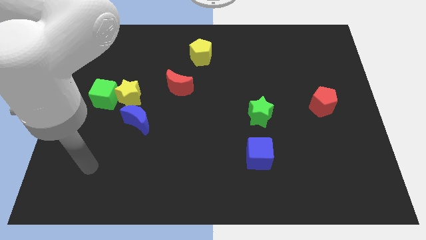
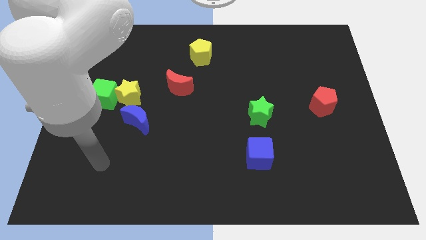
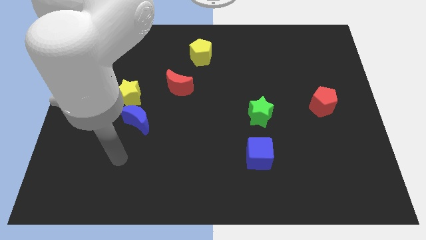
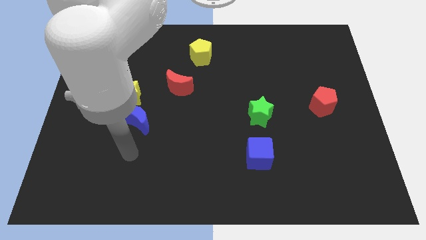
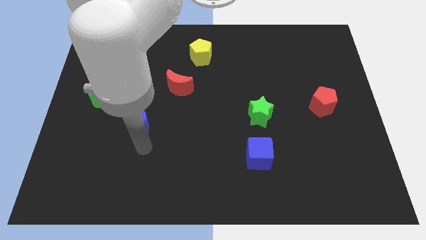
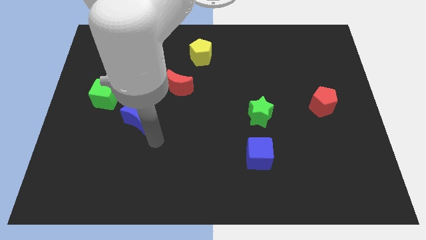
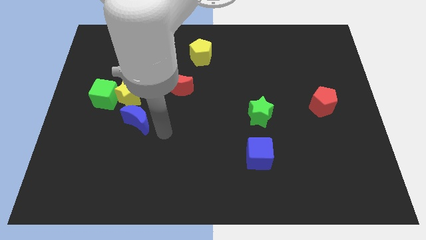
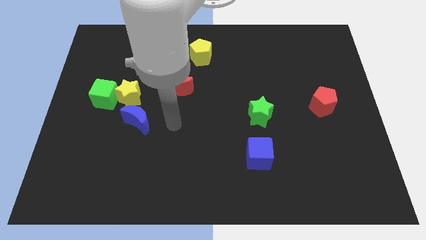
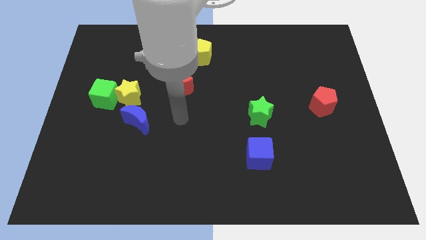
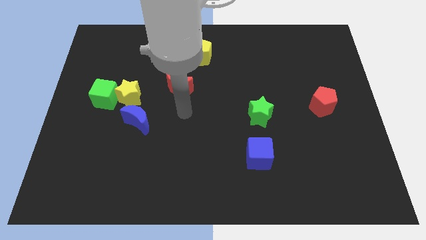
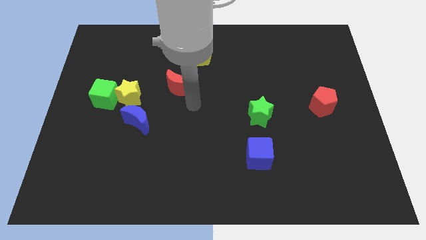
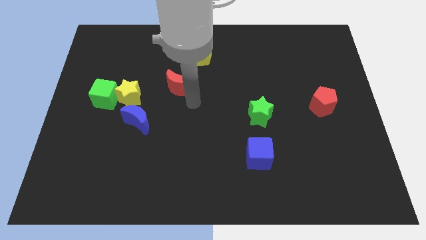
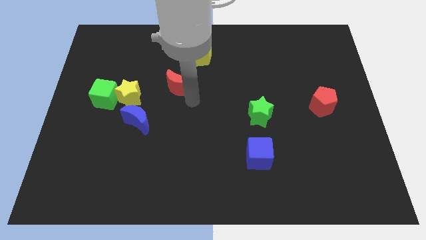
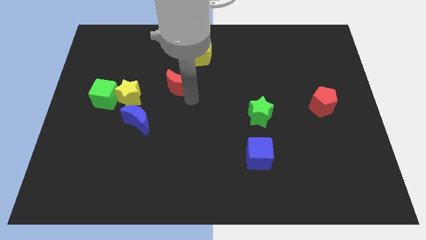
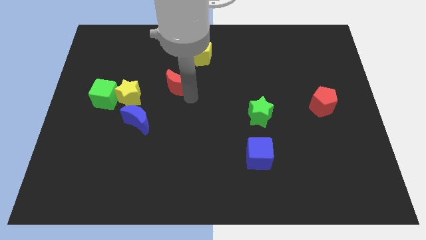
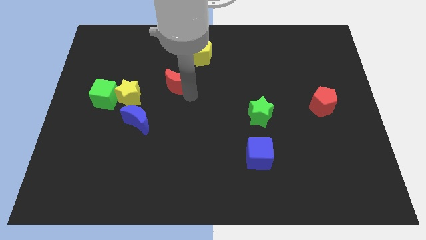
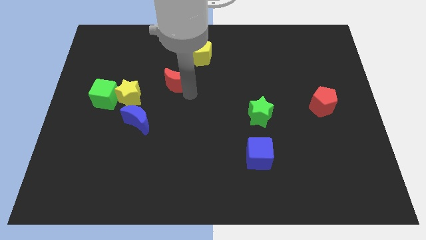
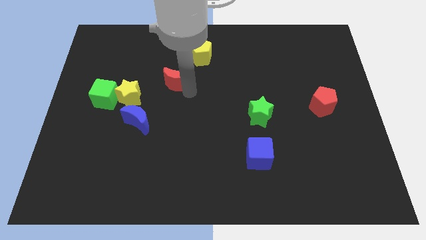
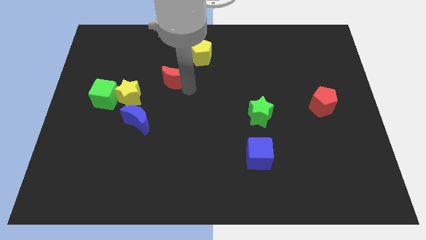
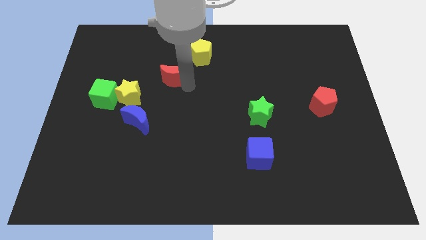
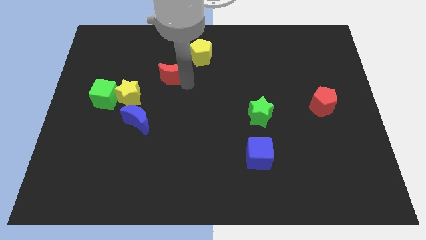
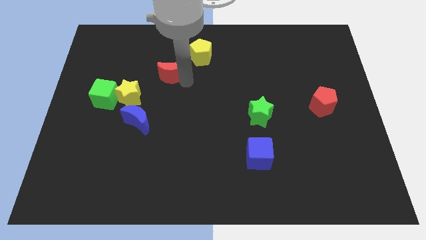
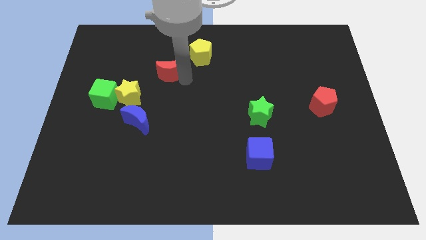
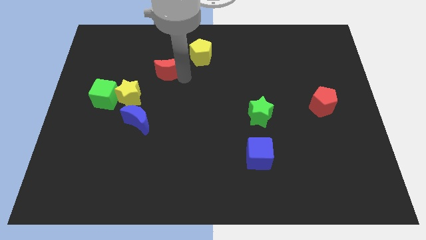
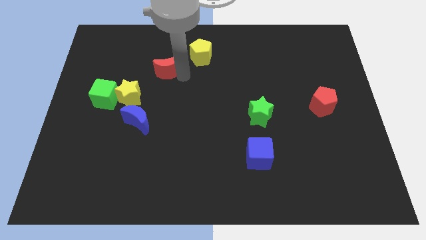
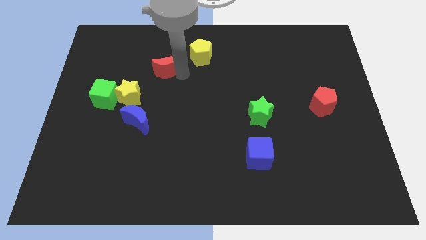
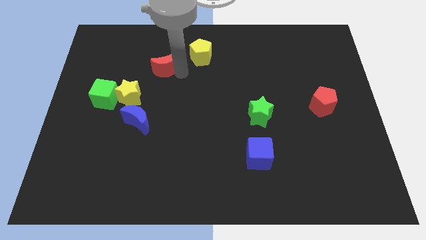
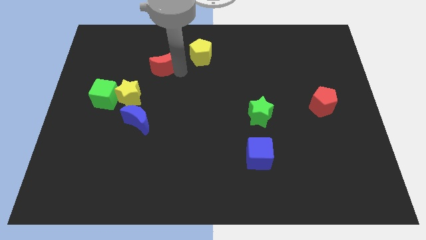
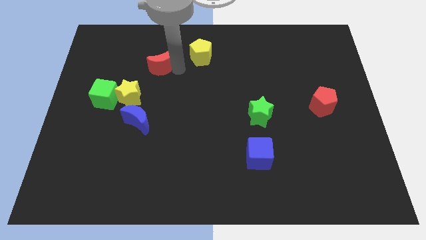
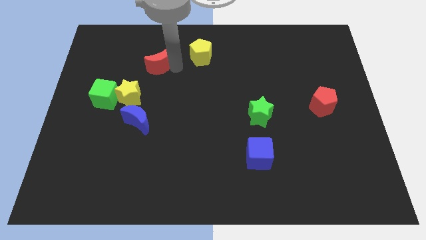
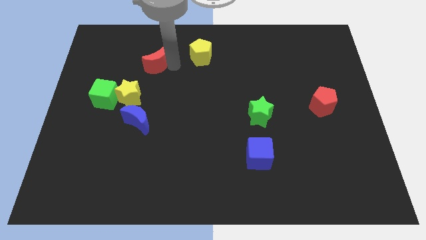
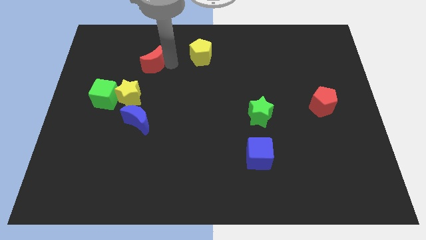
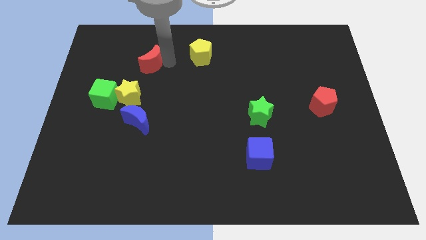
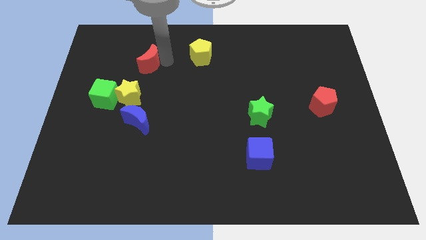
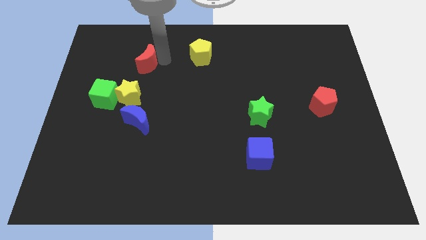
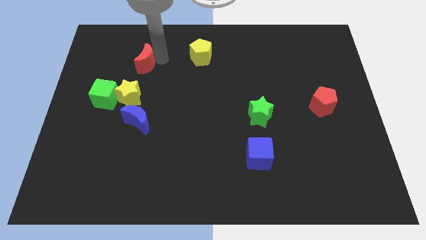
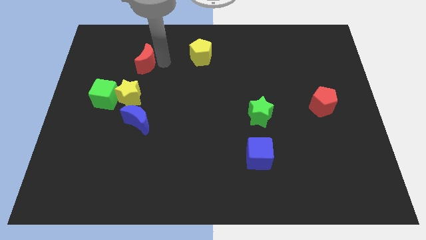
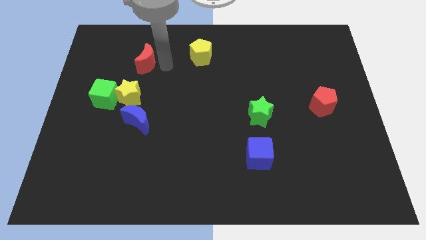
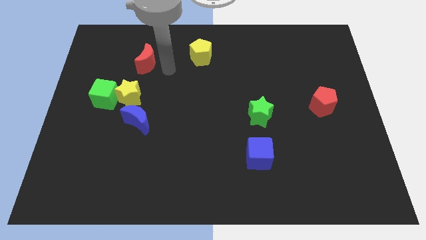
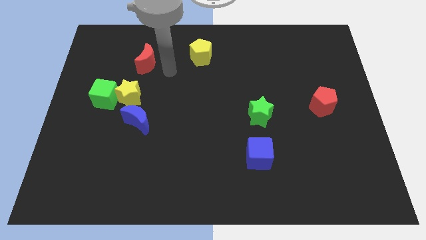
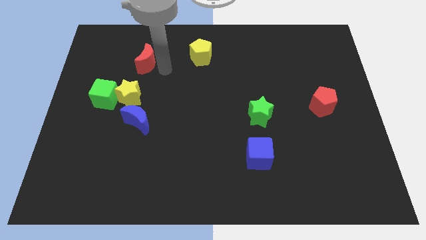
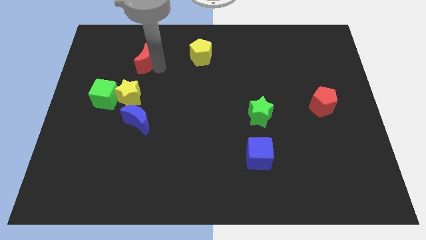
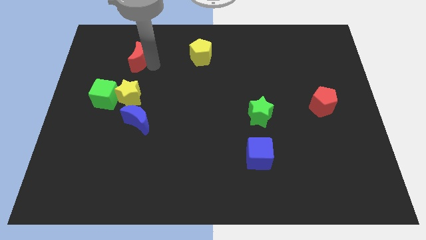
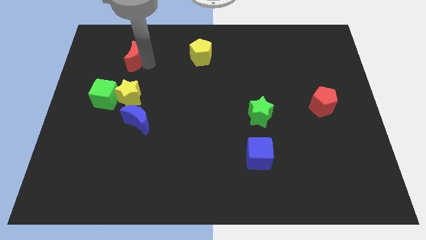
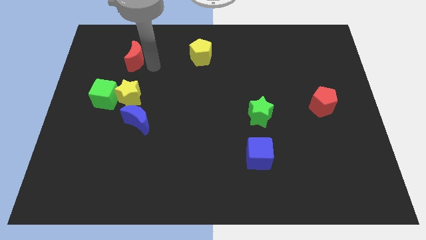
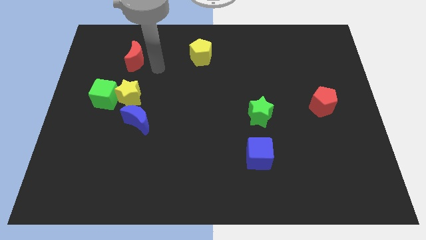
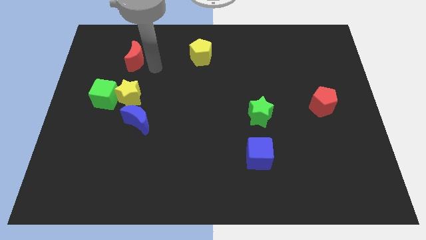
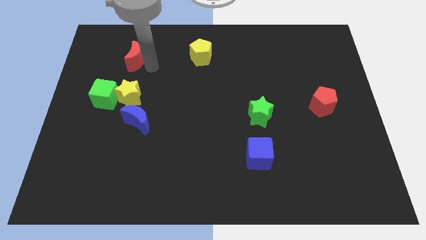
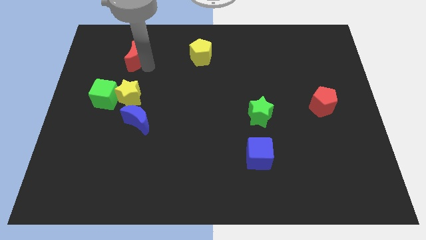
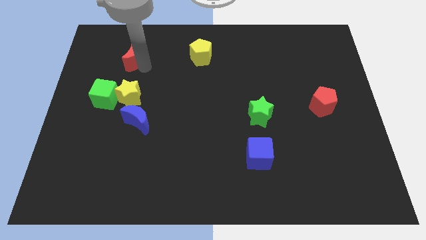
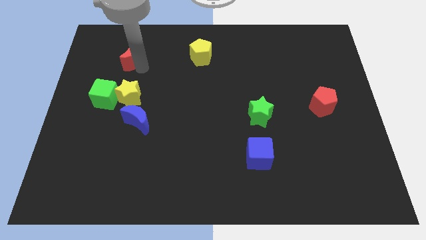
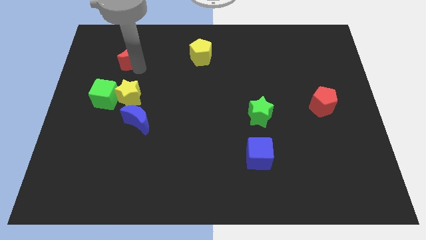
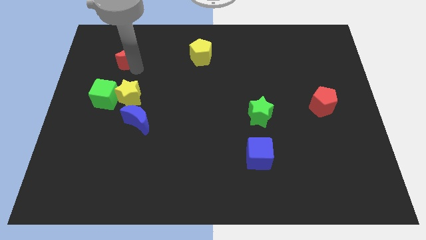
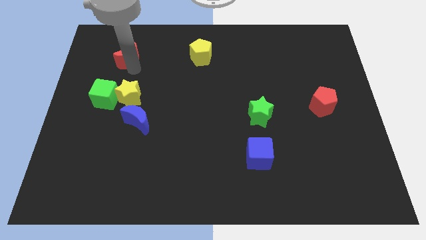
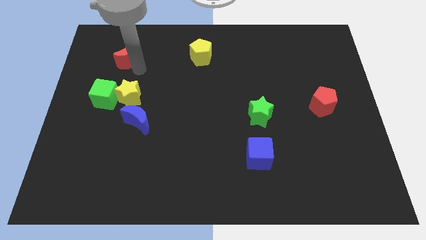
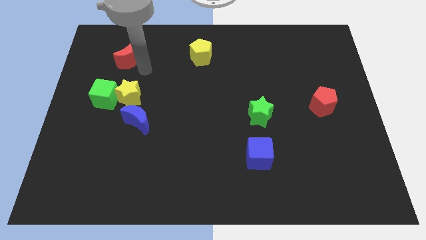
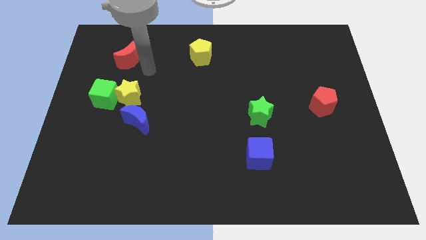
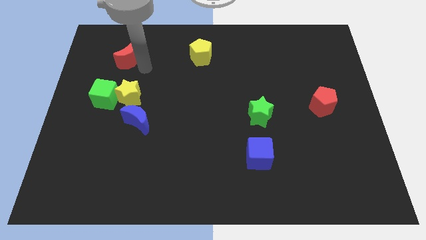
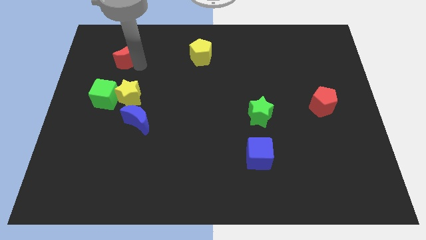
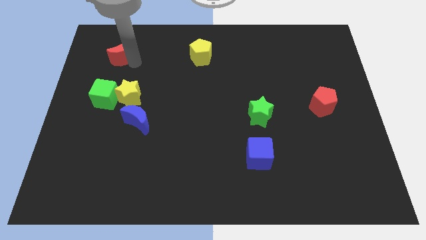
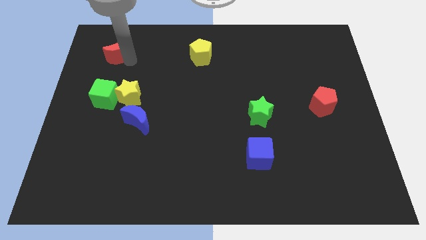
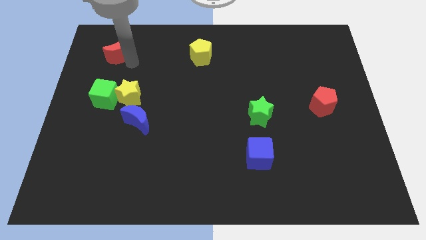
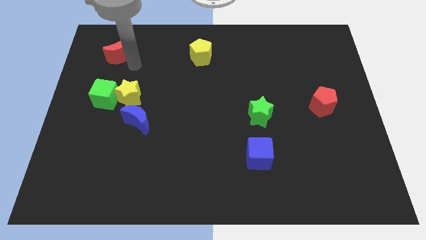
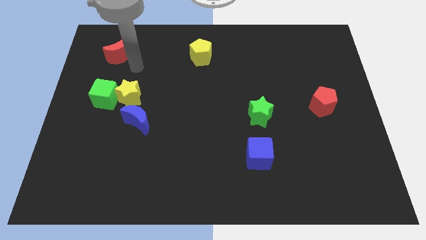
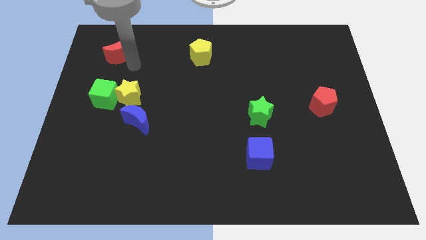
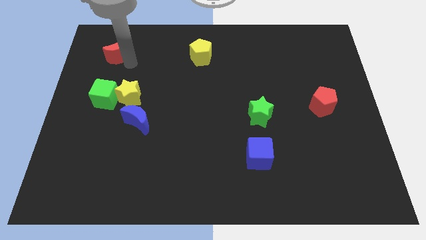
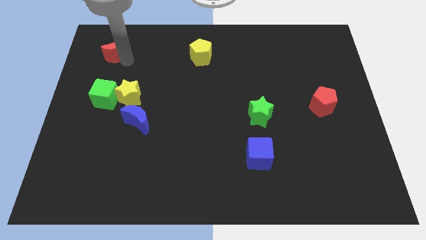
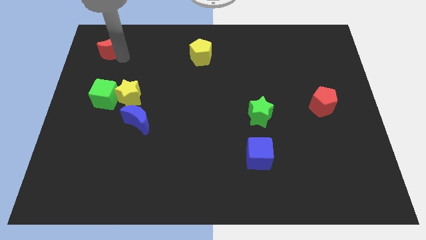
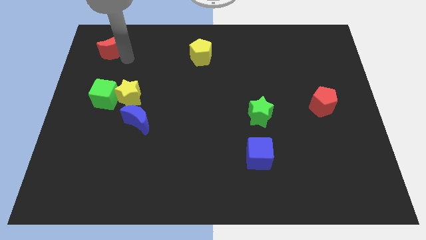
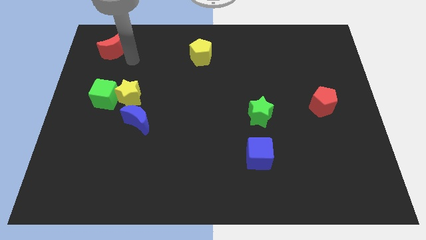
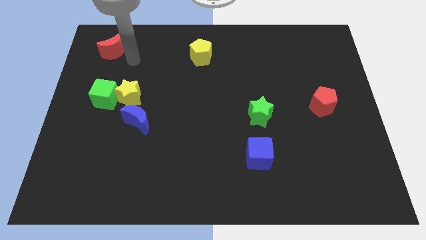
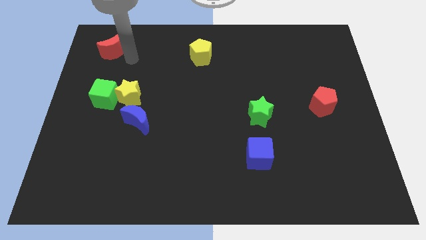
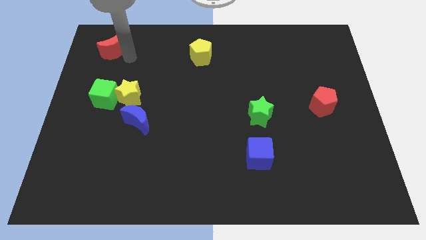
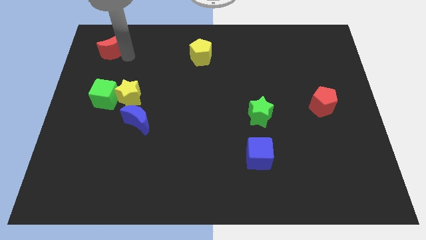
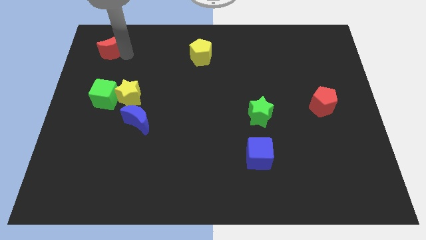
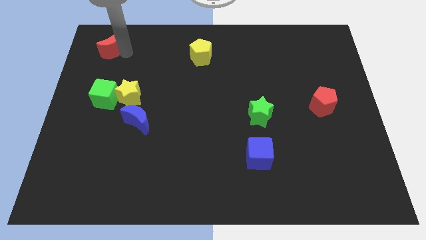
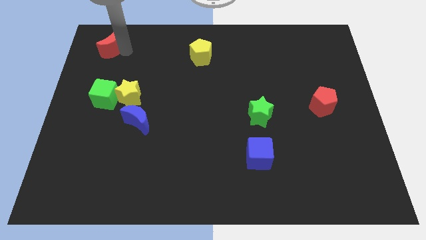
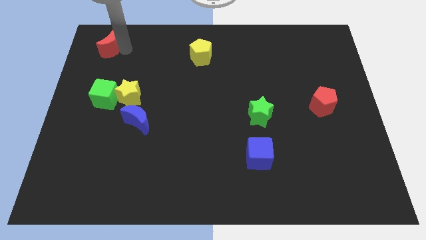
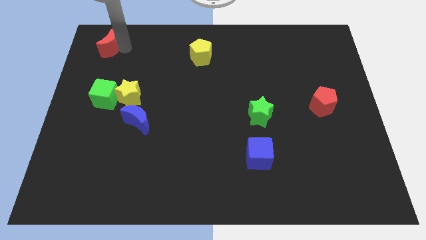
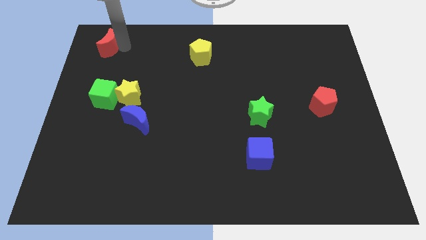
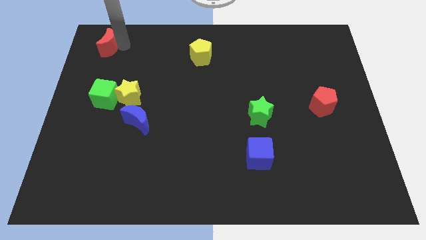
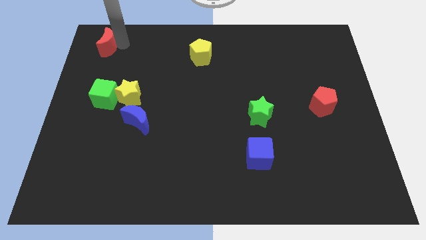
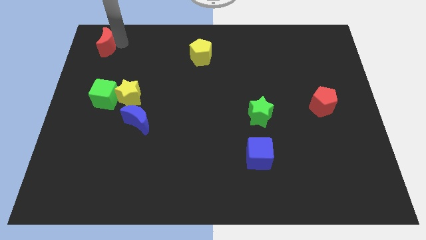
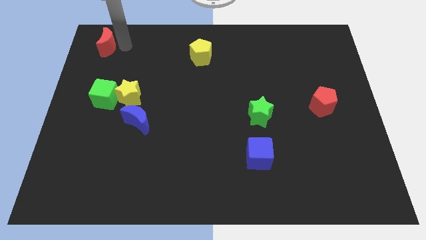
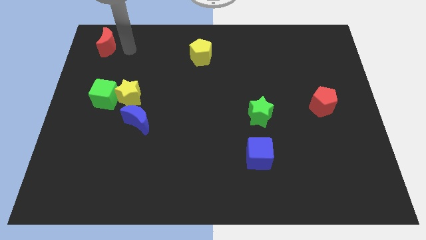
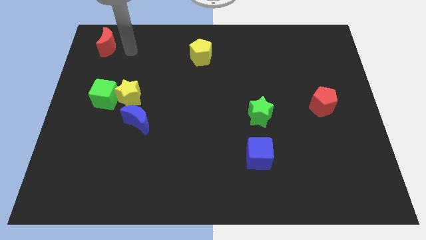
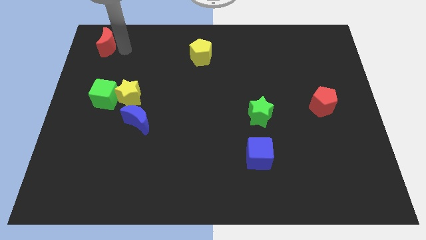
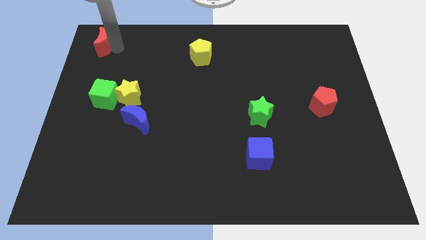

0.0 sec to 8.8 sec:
put the red moon to the upper left corner
